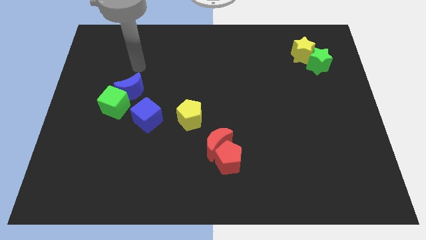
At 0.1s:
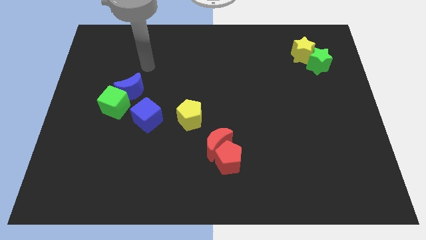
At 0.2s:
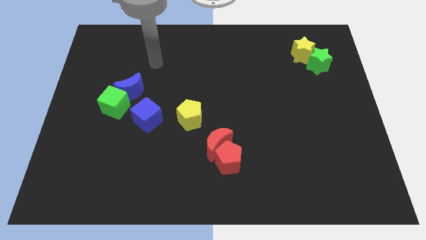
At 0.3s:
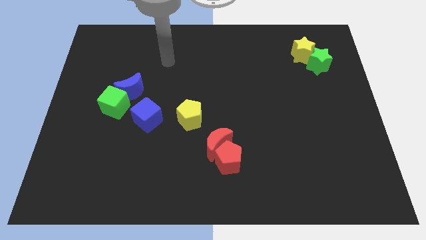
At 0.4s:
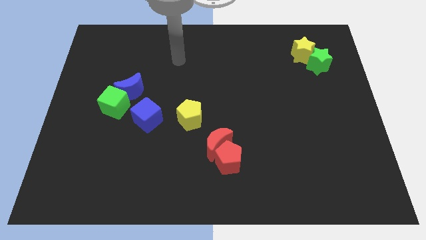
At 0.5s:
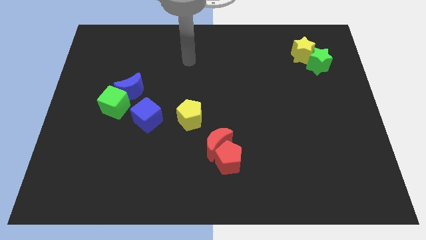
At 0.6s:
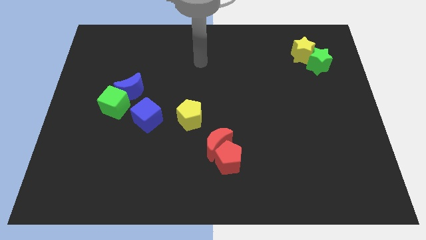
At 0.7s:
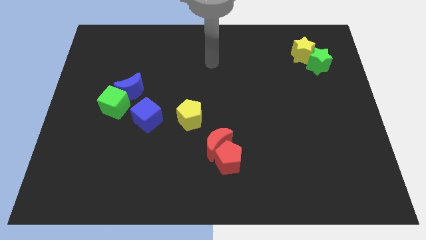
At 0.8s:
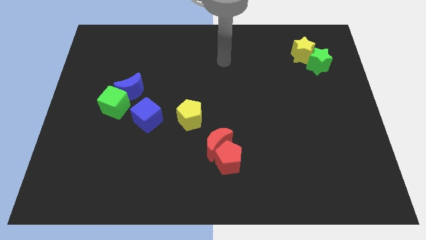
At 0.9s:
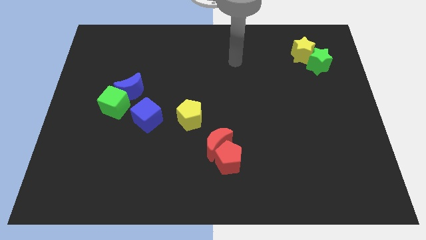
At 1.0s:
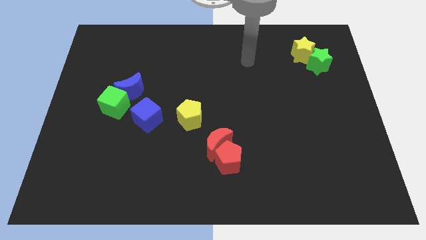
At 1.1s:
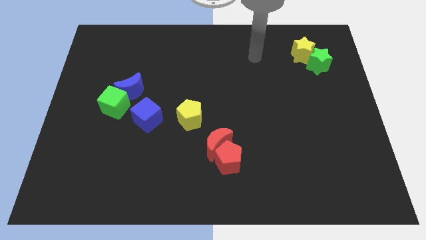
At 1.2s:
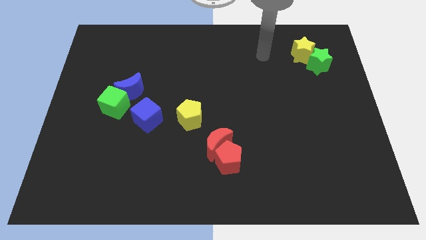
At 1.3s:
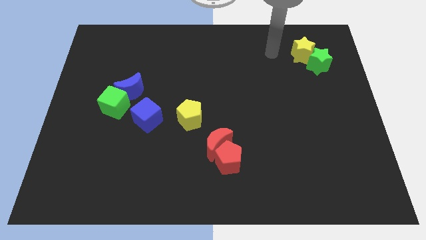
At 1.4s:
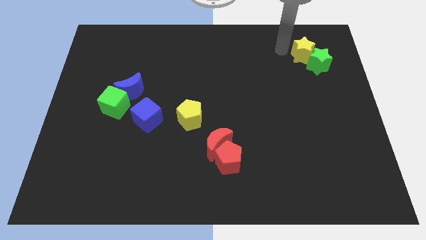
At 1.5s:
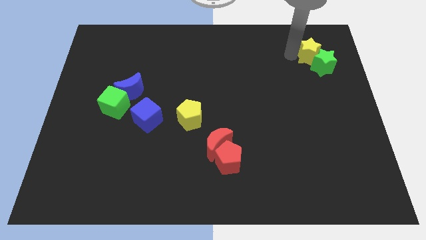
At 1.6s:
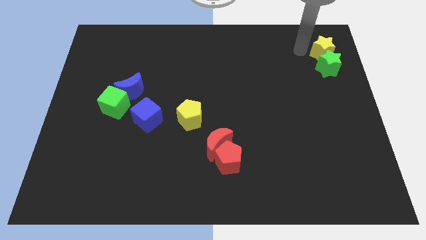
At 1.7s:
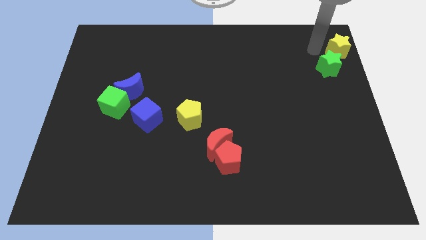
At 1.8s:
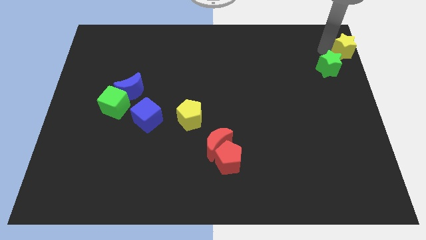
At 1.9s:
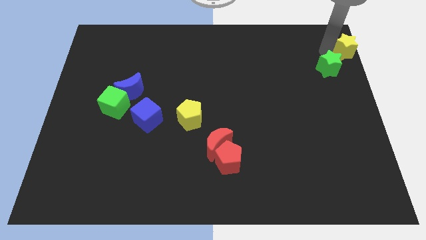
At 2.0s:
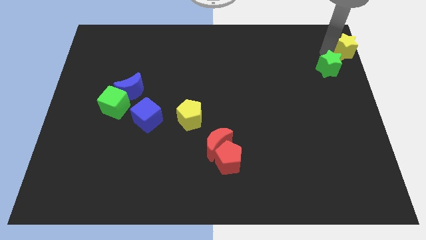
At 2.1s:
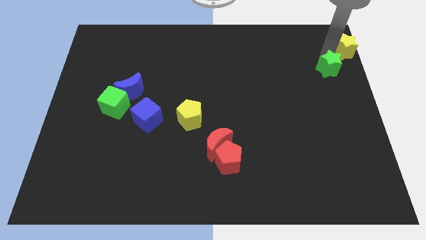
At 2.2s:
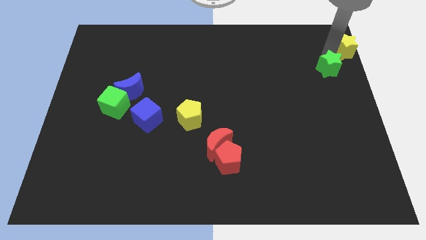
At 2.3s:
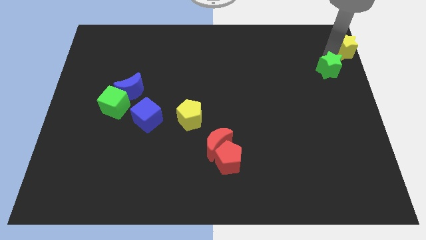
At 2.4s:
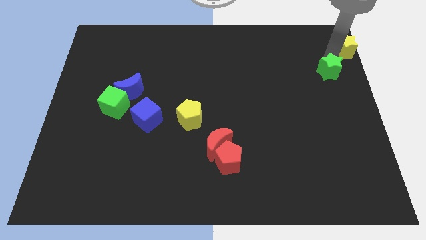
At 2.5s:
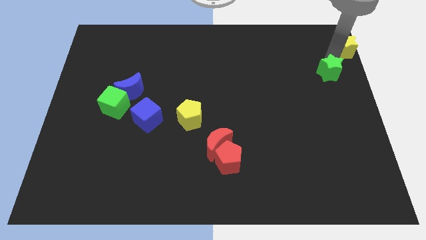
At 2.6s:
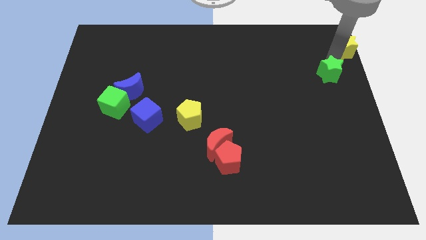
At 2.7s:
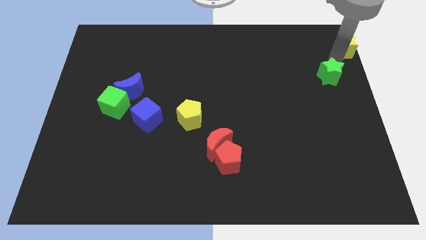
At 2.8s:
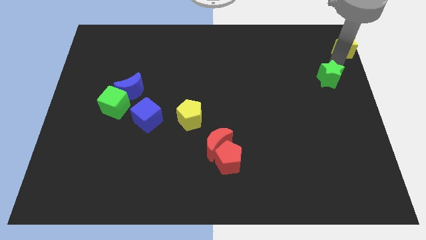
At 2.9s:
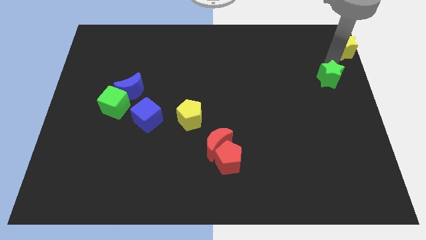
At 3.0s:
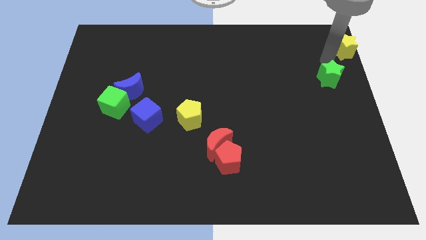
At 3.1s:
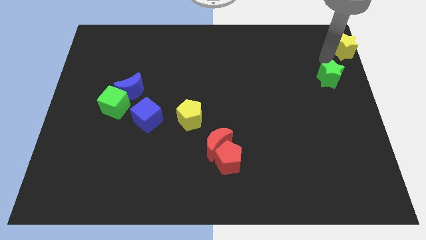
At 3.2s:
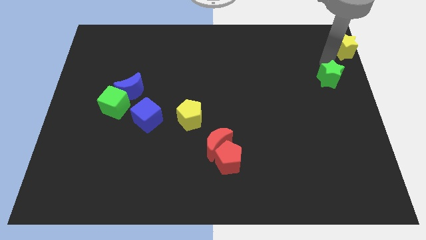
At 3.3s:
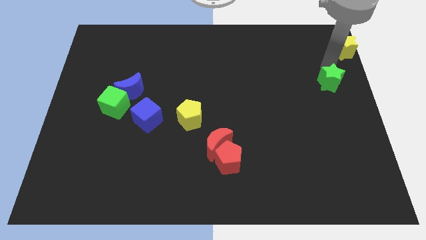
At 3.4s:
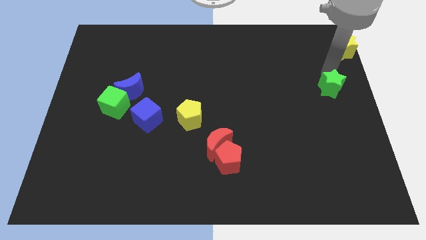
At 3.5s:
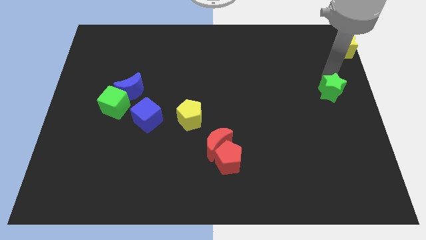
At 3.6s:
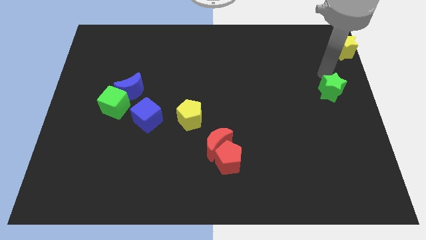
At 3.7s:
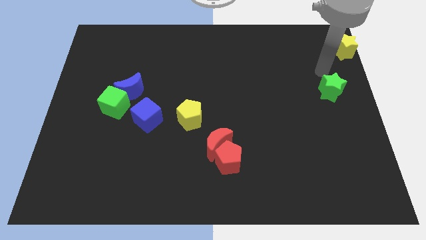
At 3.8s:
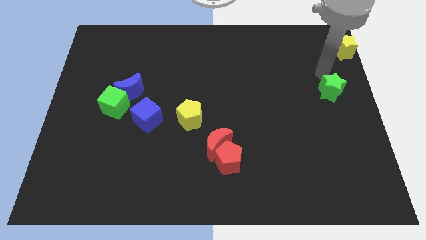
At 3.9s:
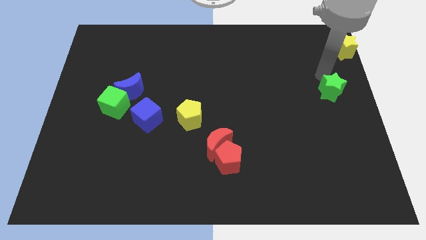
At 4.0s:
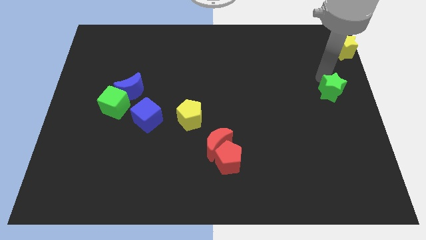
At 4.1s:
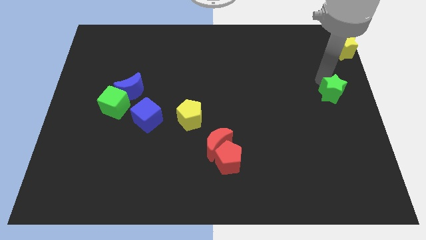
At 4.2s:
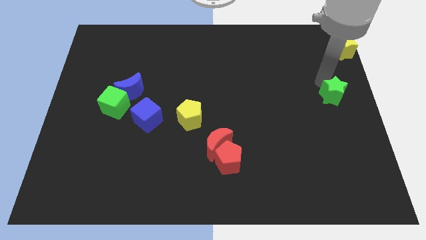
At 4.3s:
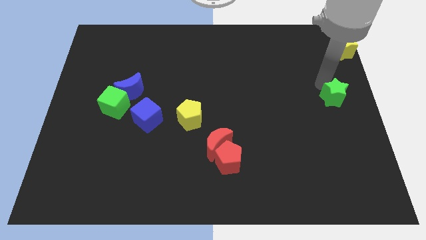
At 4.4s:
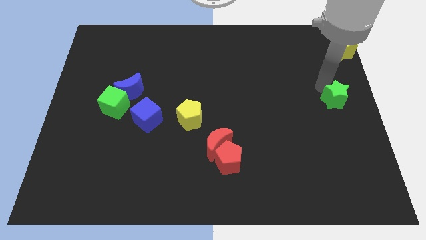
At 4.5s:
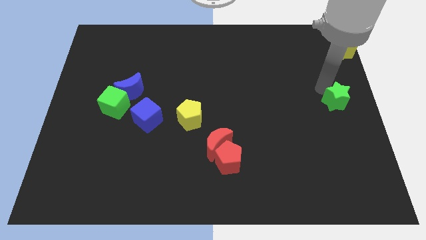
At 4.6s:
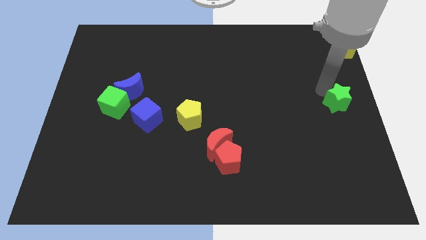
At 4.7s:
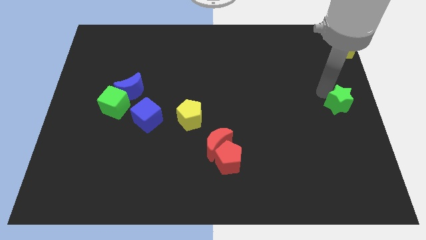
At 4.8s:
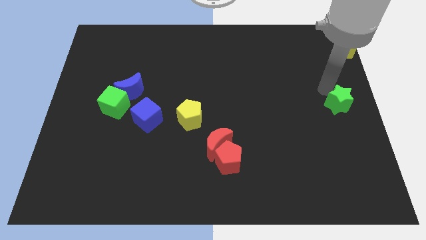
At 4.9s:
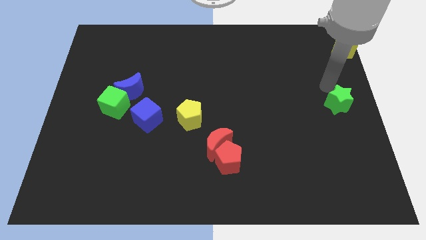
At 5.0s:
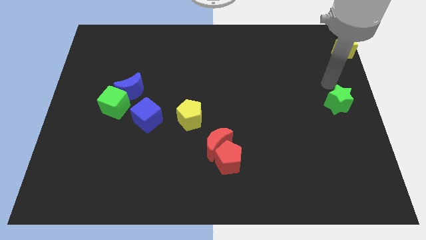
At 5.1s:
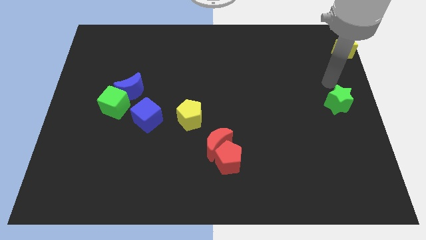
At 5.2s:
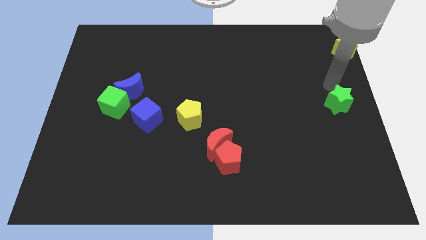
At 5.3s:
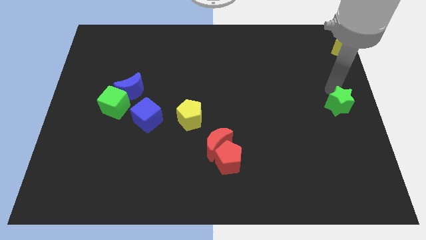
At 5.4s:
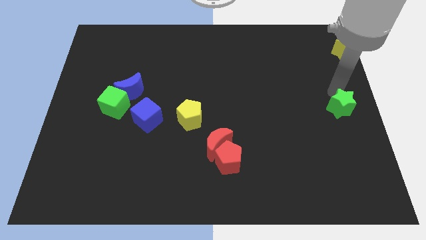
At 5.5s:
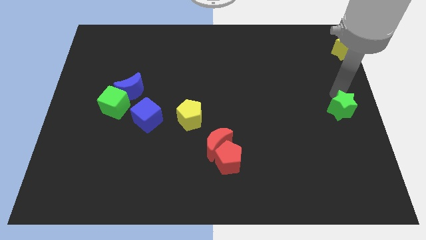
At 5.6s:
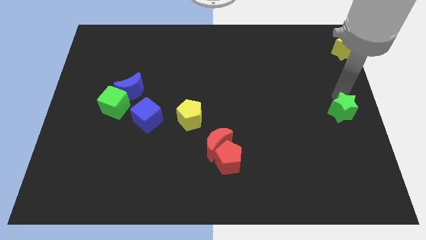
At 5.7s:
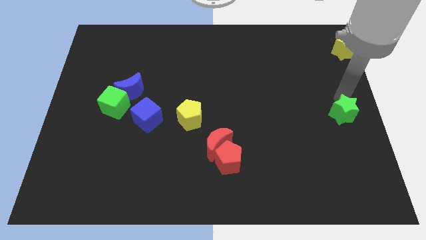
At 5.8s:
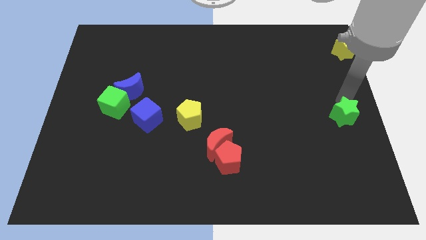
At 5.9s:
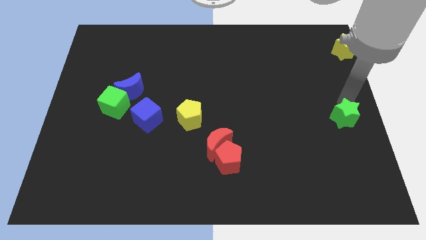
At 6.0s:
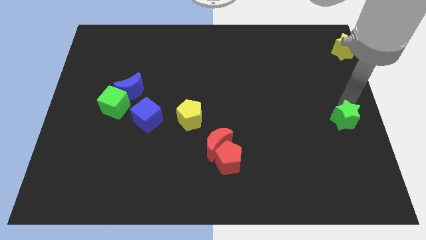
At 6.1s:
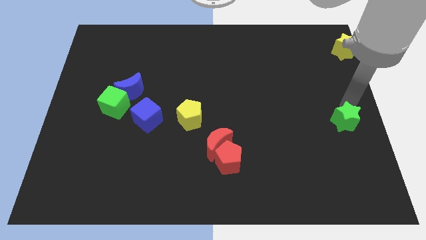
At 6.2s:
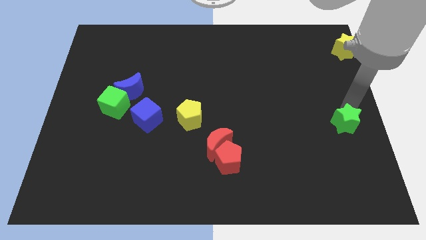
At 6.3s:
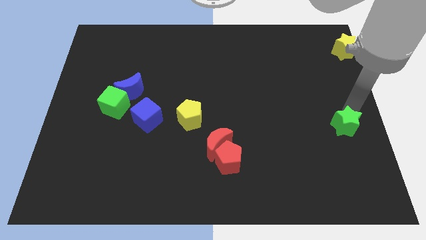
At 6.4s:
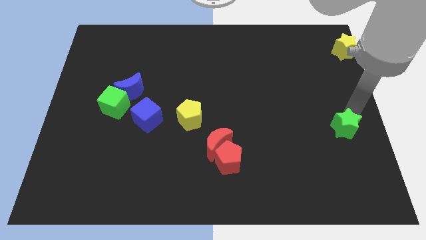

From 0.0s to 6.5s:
slide the green star down

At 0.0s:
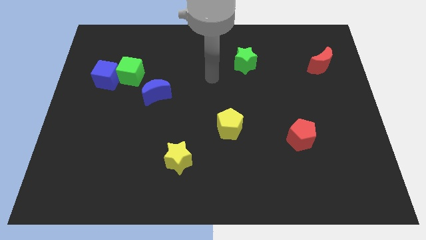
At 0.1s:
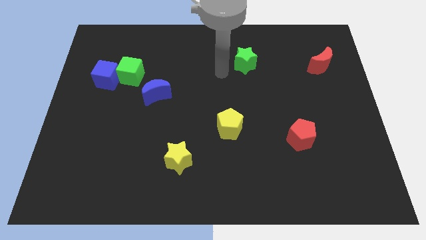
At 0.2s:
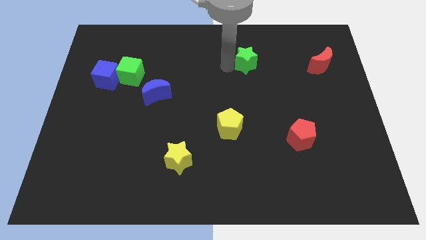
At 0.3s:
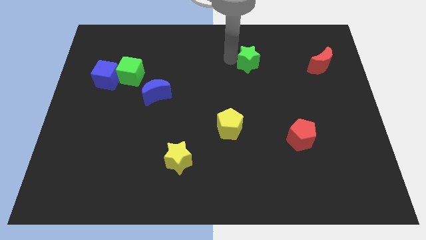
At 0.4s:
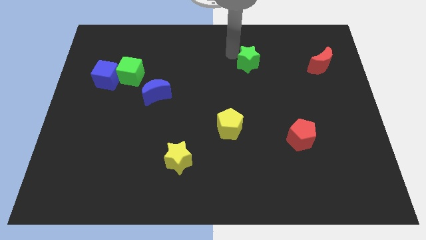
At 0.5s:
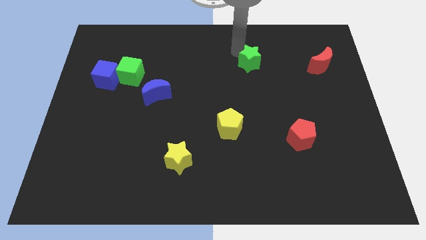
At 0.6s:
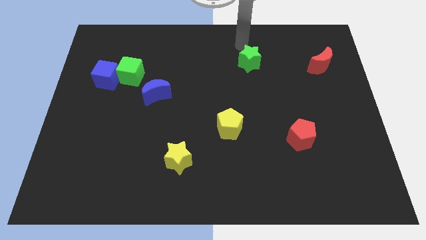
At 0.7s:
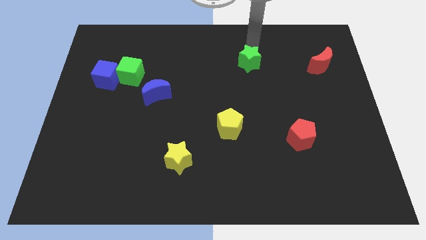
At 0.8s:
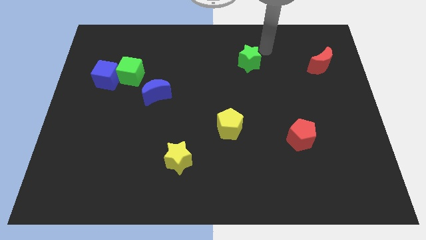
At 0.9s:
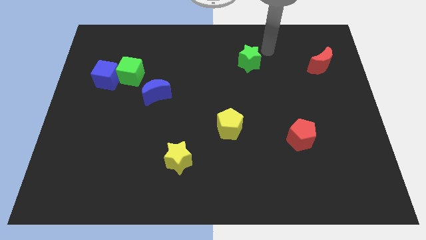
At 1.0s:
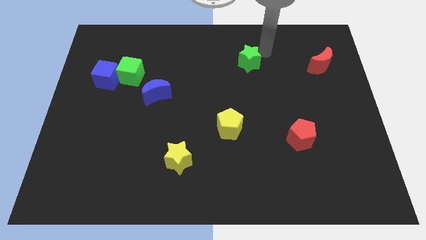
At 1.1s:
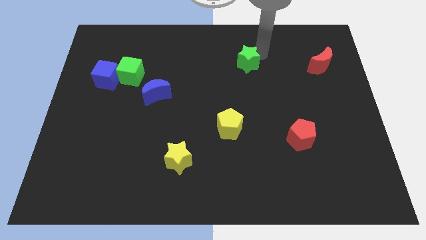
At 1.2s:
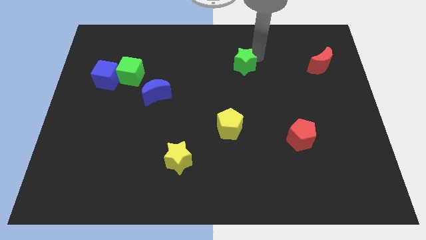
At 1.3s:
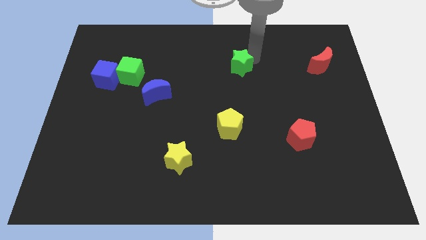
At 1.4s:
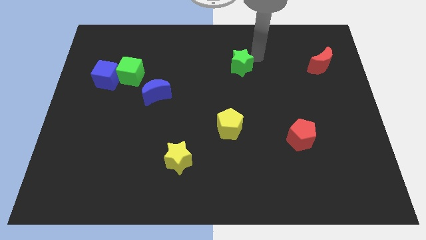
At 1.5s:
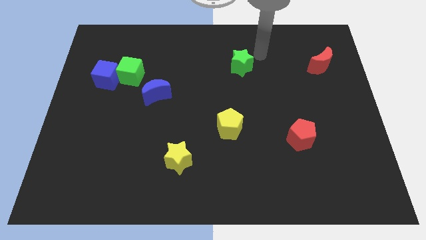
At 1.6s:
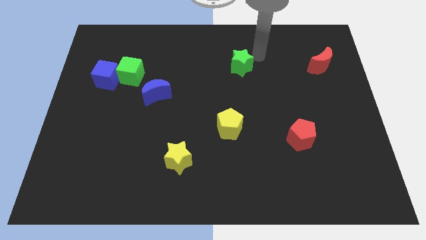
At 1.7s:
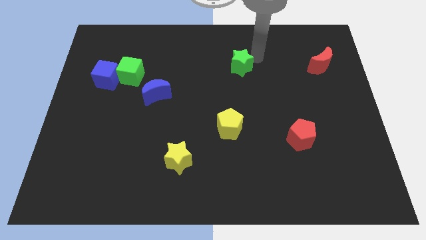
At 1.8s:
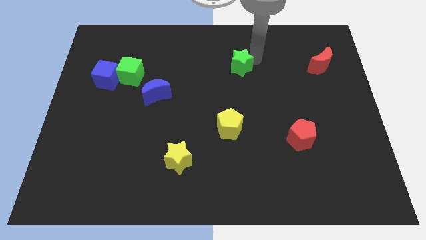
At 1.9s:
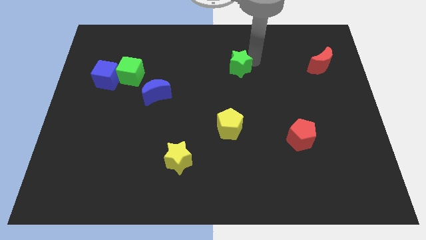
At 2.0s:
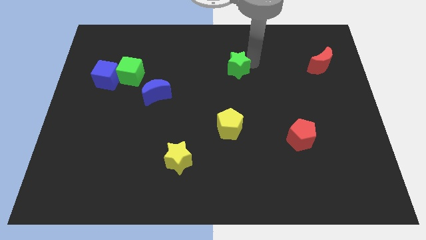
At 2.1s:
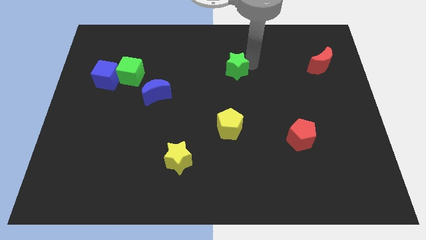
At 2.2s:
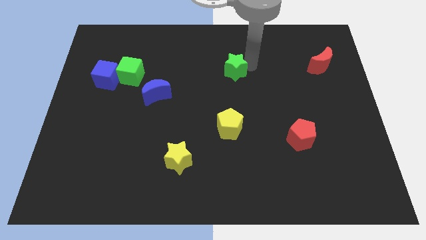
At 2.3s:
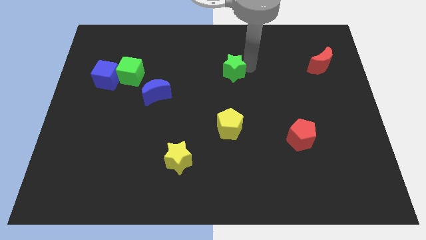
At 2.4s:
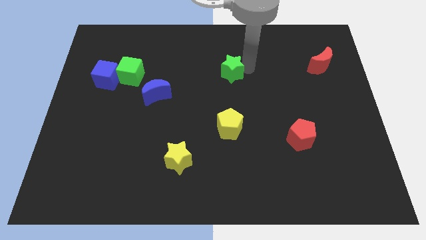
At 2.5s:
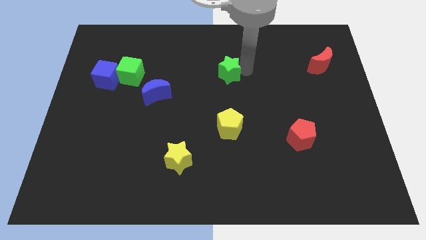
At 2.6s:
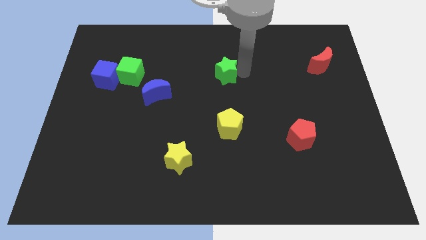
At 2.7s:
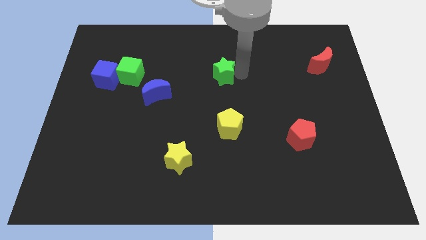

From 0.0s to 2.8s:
push the green star a little down and left diagonally
